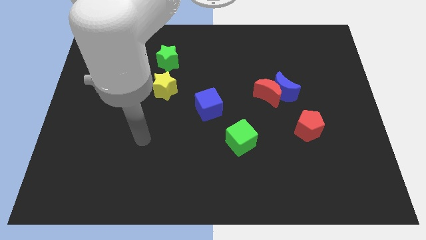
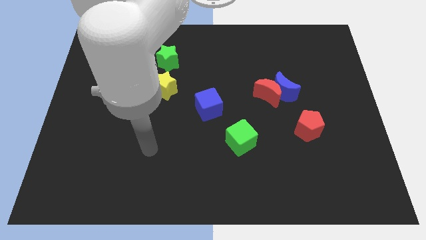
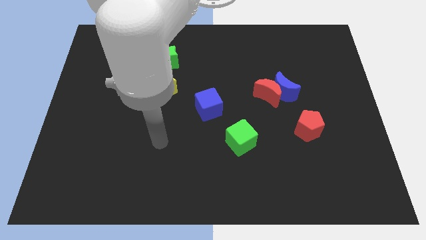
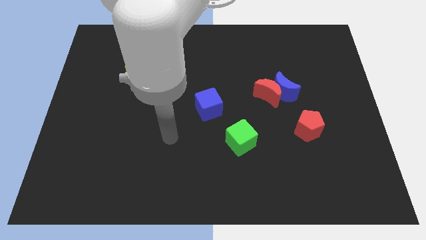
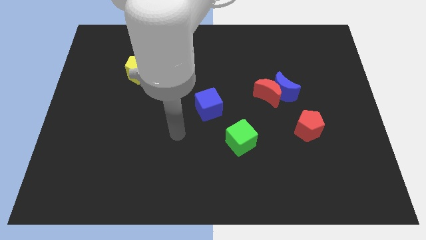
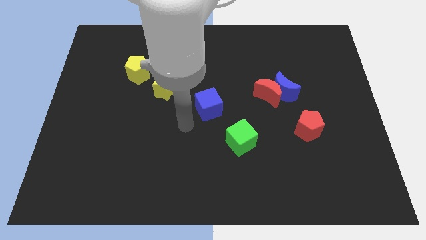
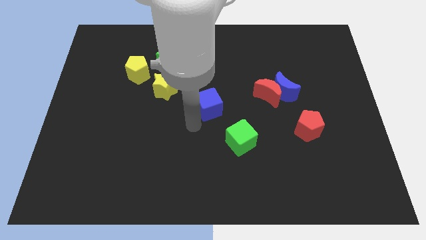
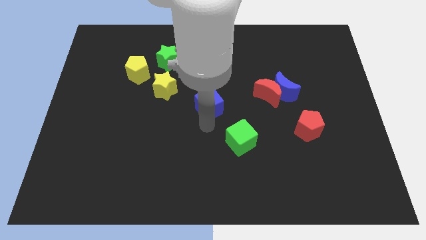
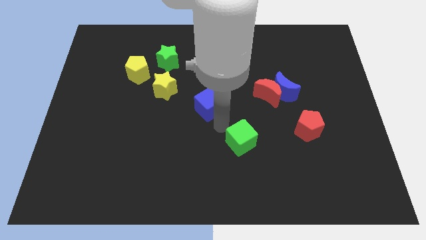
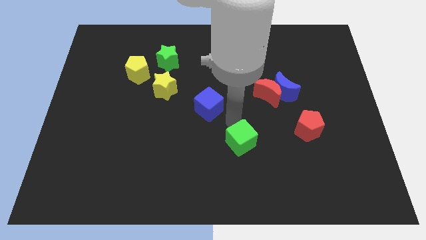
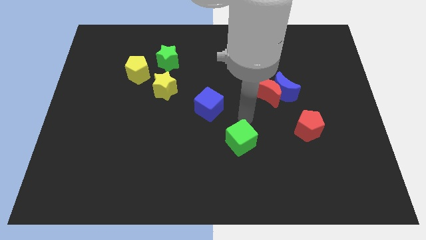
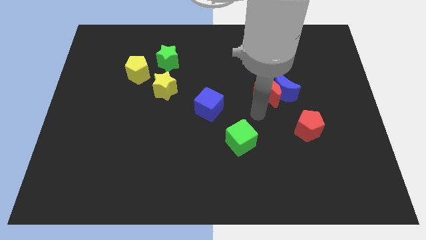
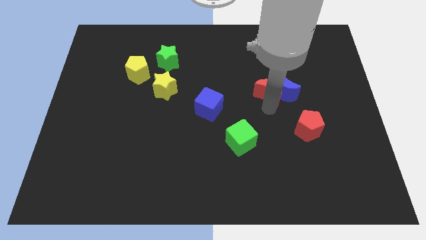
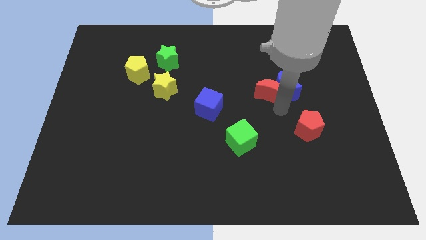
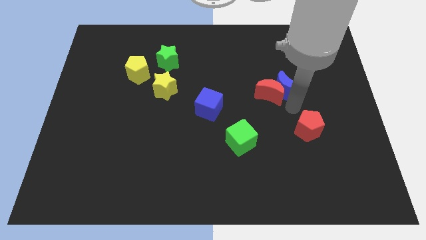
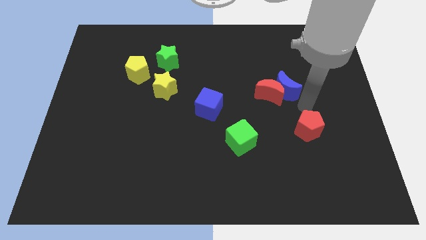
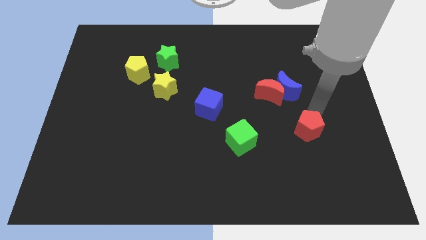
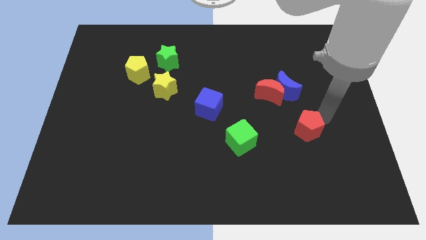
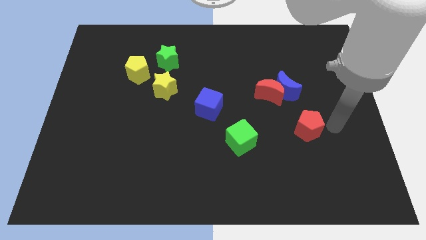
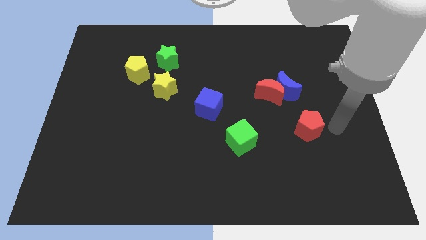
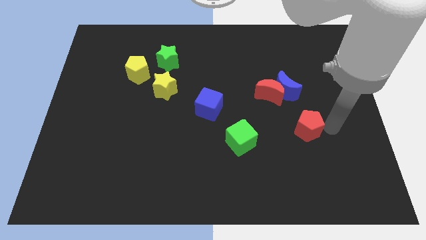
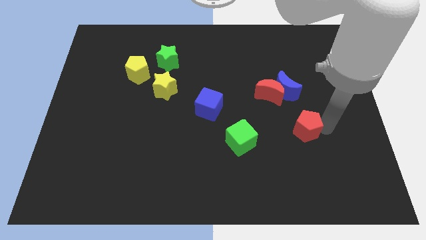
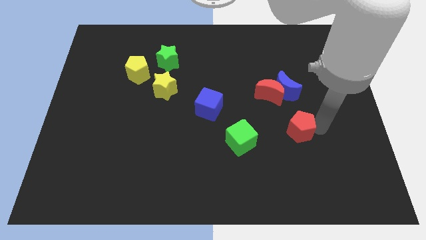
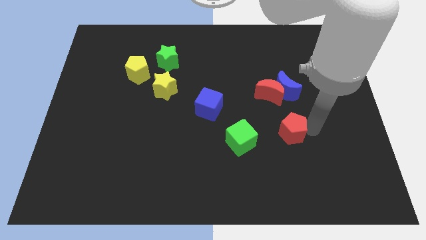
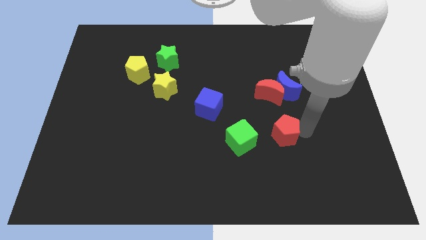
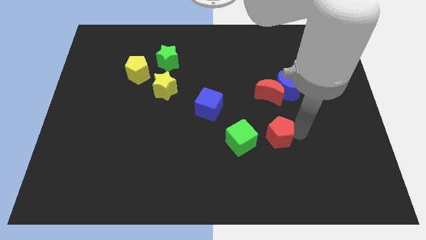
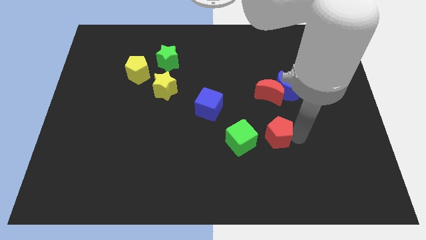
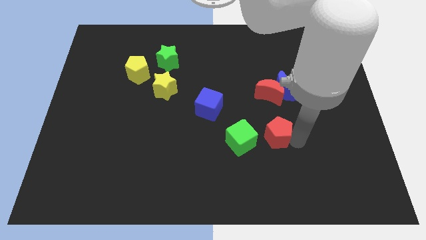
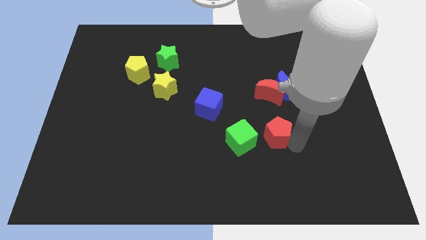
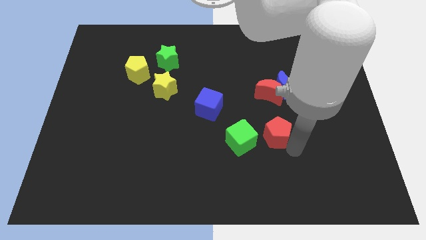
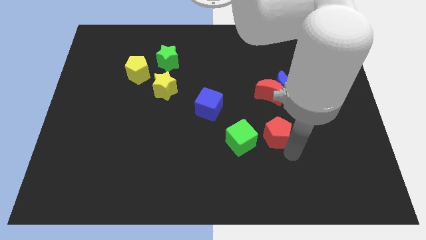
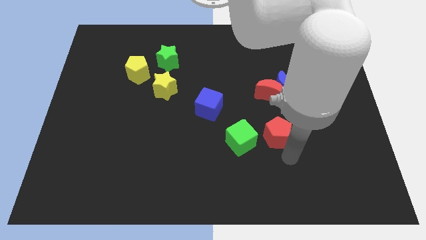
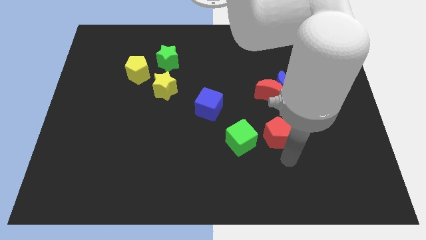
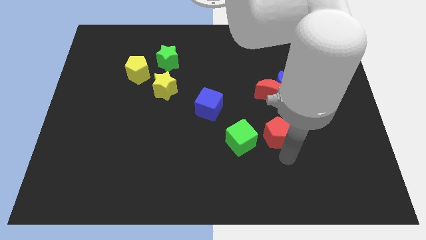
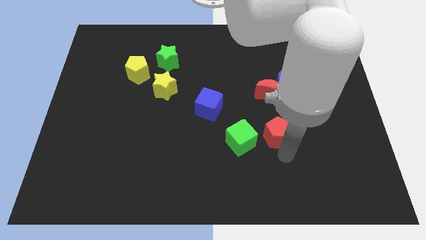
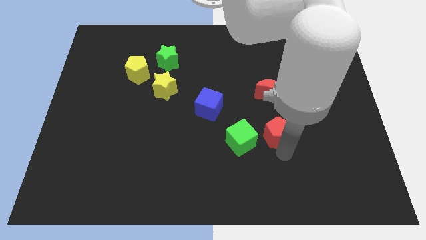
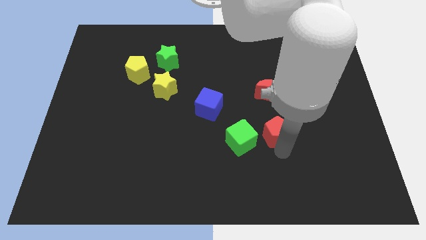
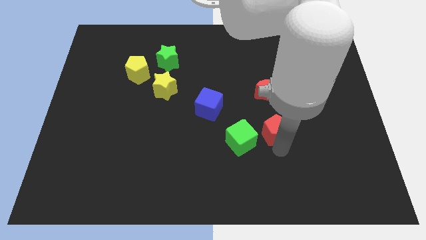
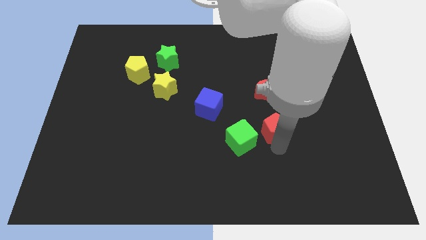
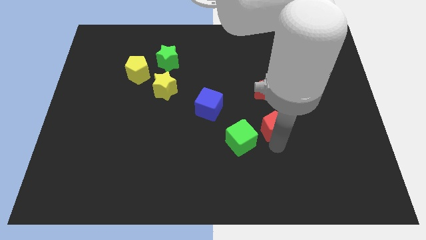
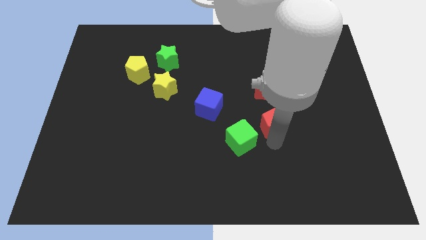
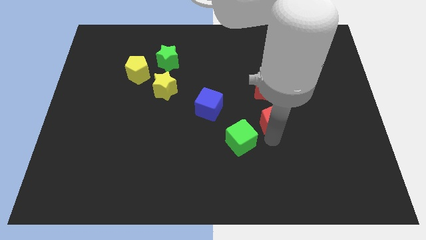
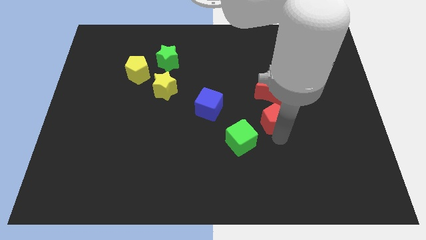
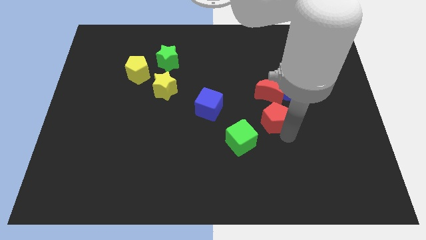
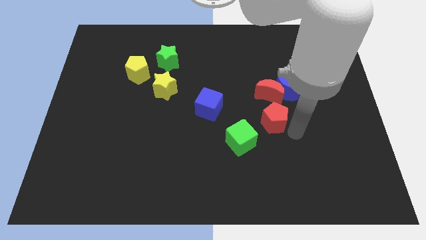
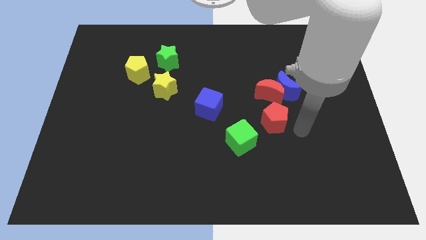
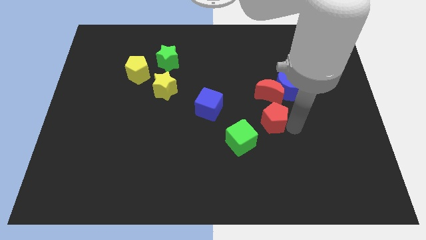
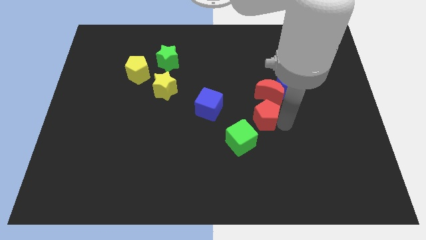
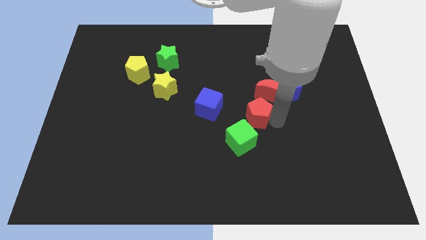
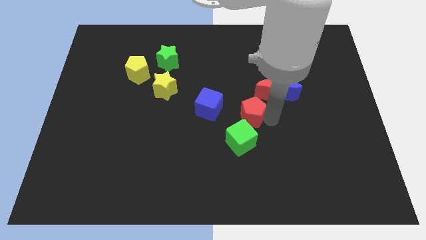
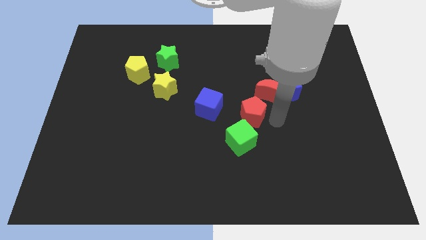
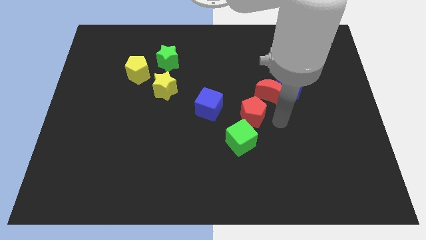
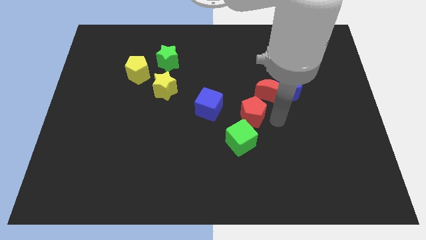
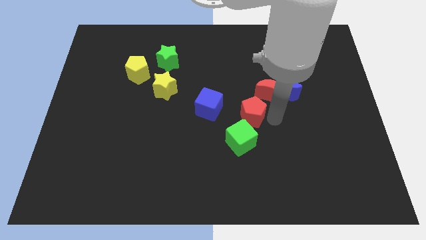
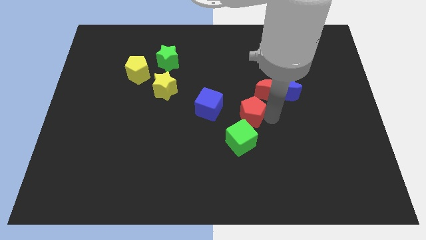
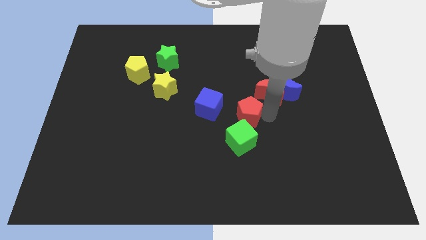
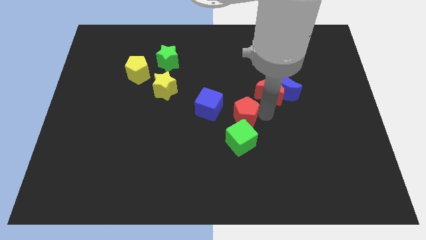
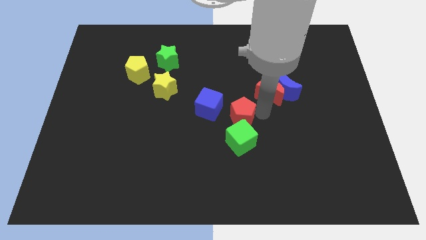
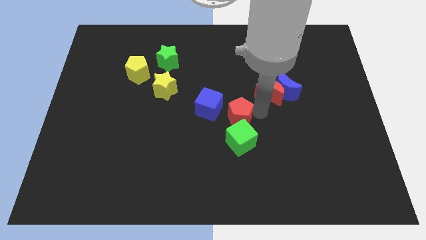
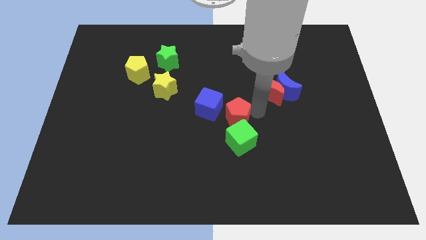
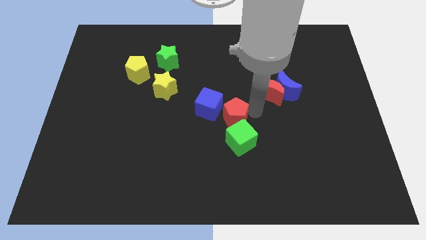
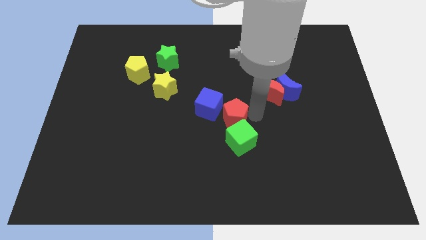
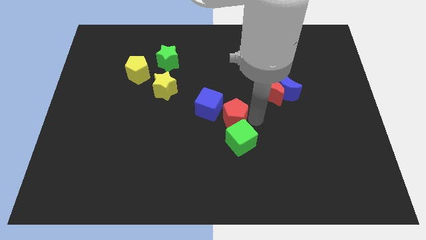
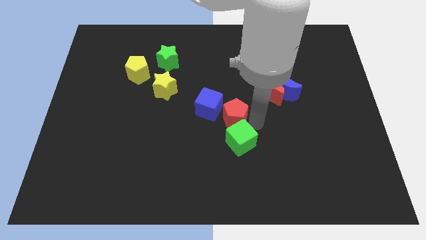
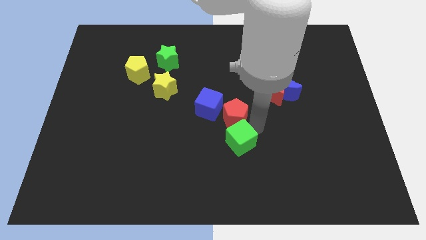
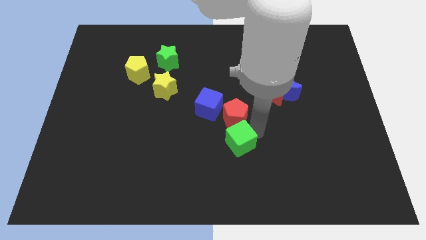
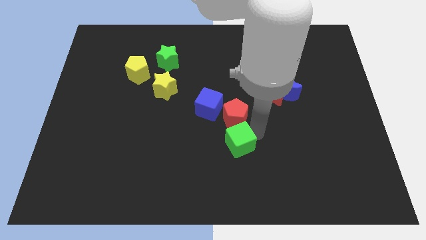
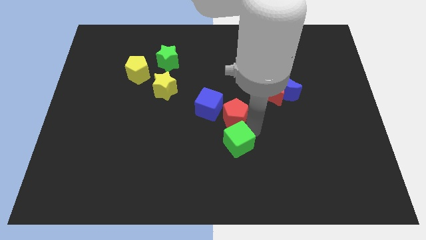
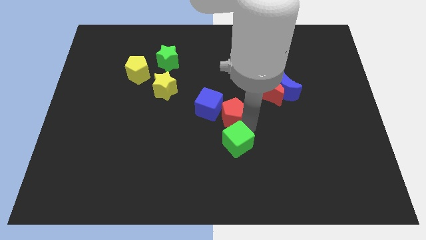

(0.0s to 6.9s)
push the red pentagon to the blue cube

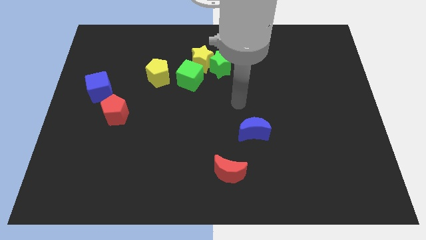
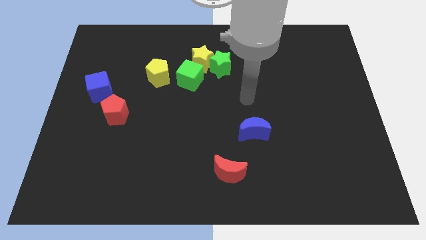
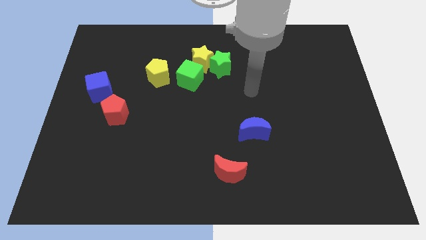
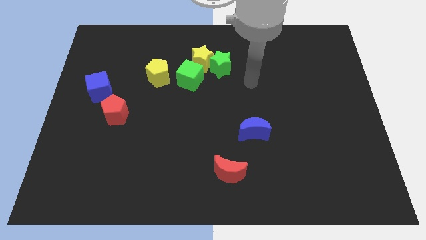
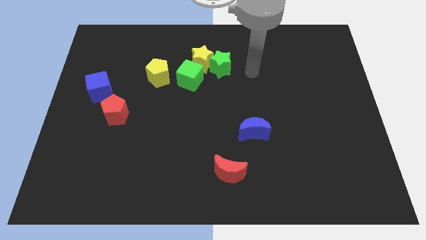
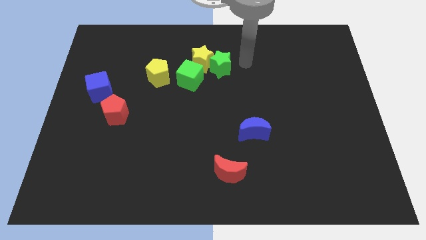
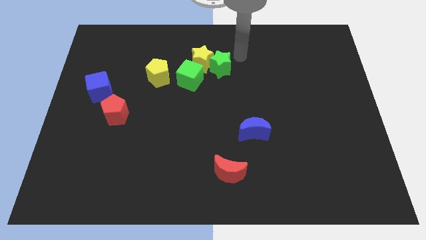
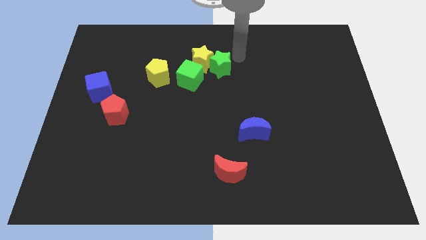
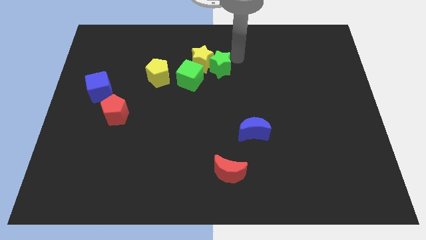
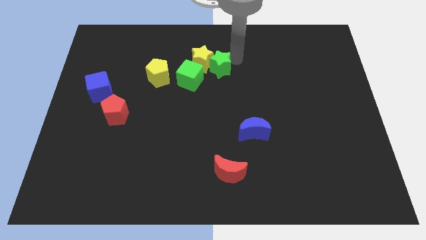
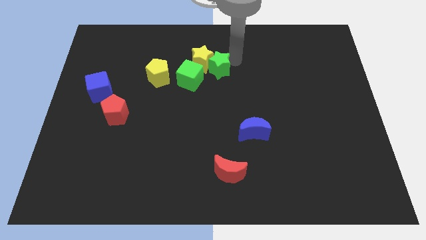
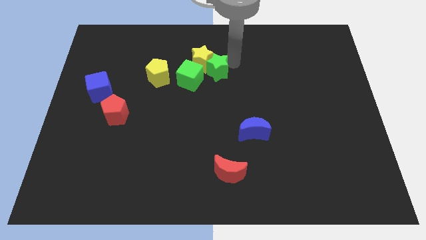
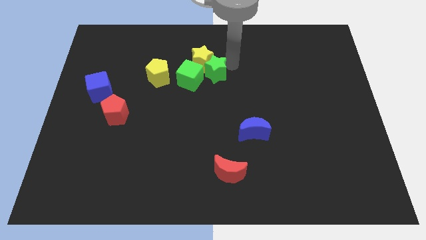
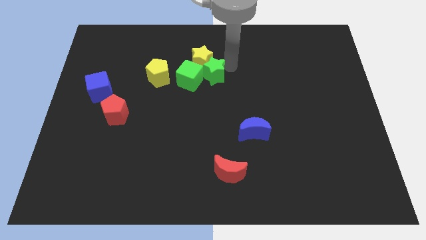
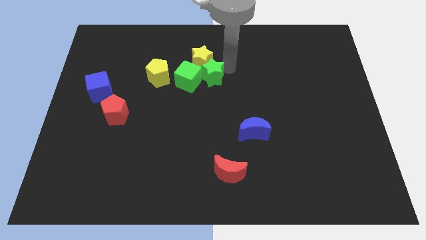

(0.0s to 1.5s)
move the green star to the green cube
